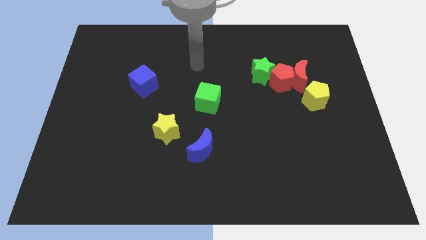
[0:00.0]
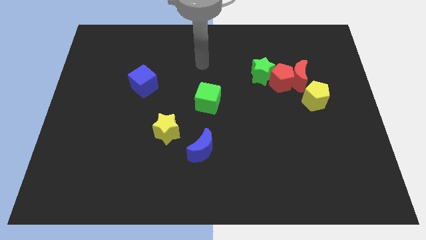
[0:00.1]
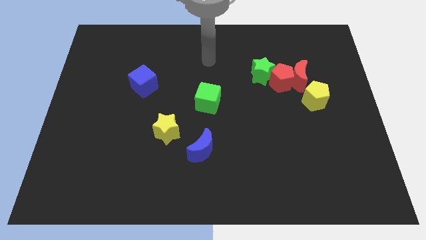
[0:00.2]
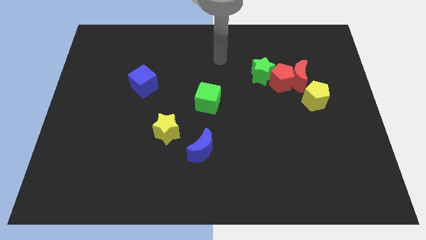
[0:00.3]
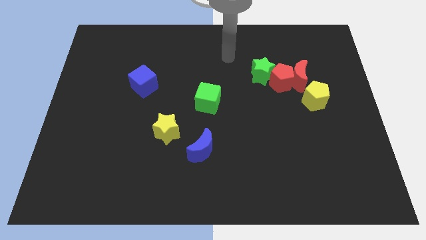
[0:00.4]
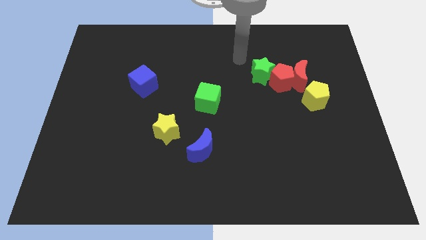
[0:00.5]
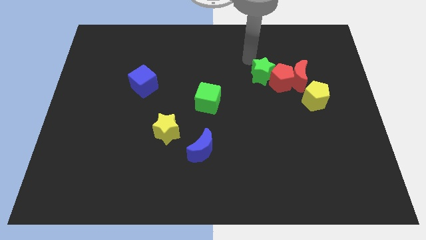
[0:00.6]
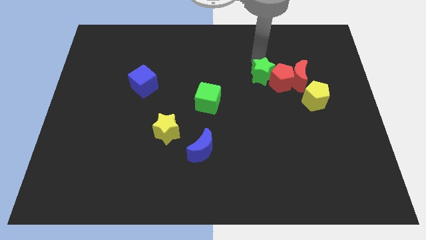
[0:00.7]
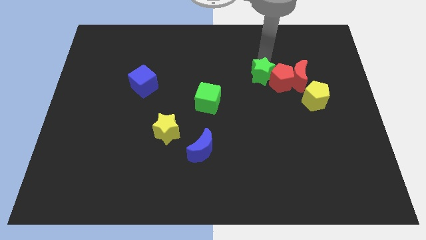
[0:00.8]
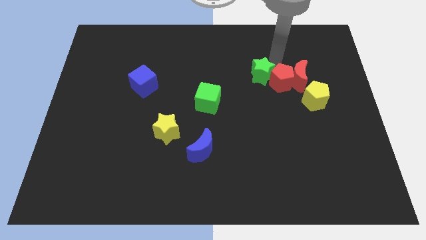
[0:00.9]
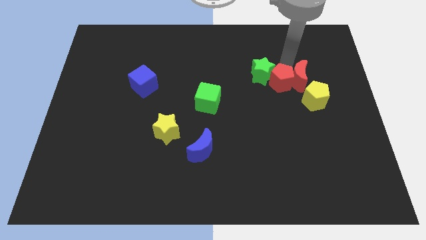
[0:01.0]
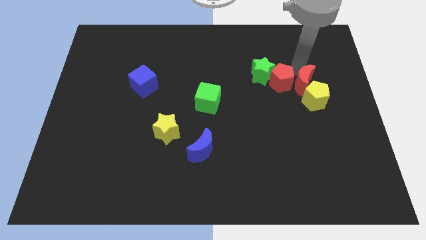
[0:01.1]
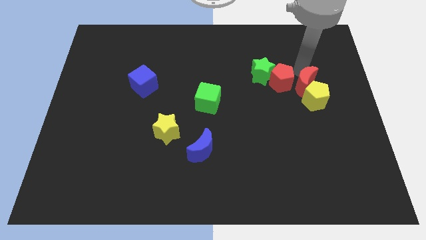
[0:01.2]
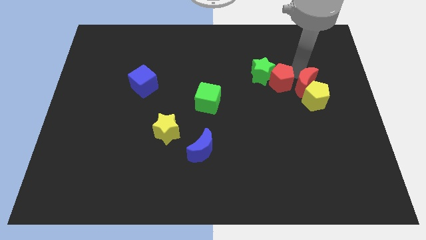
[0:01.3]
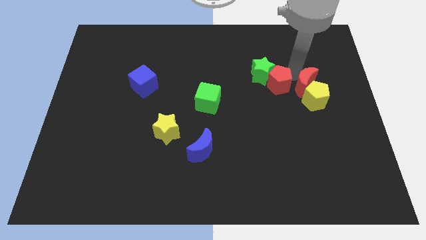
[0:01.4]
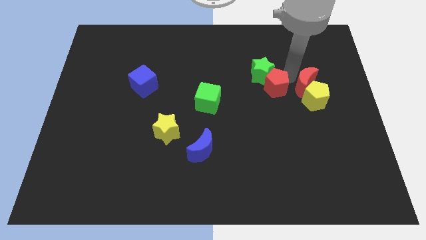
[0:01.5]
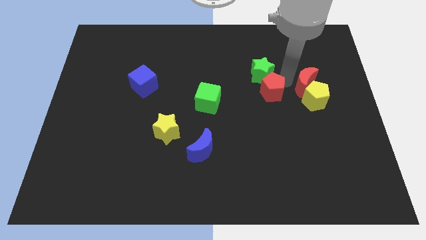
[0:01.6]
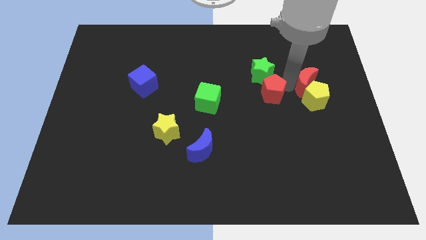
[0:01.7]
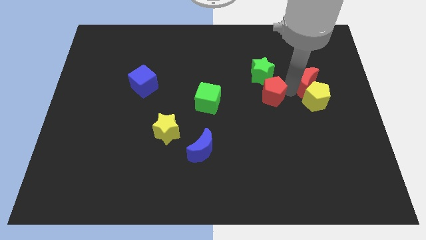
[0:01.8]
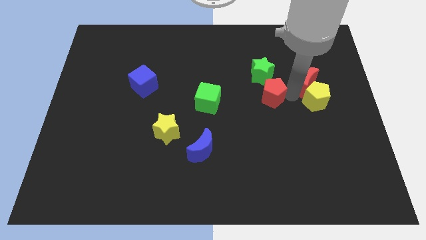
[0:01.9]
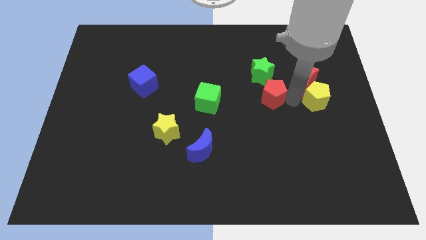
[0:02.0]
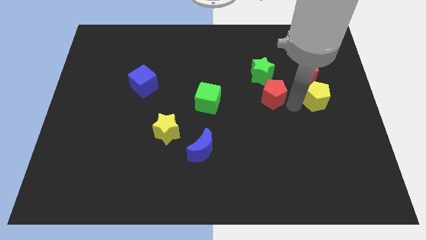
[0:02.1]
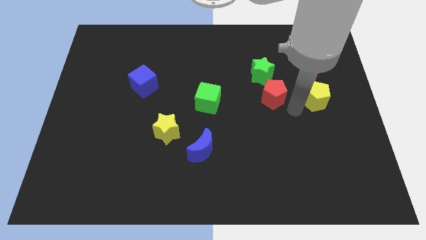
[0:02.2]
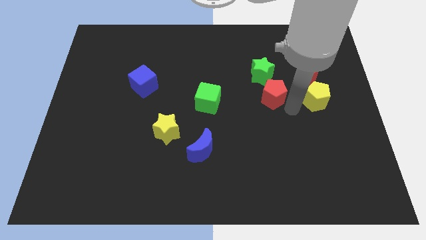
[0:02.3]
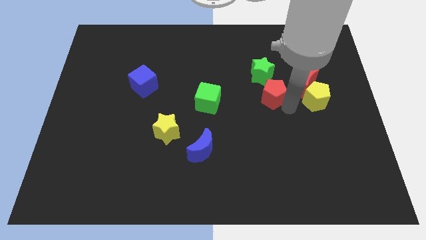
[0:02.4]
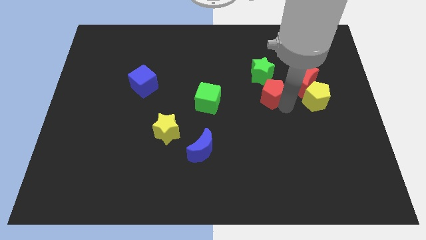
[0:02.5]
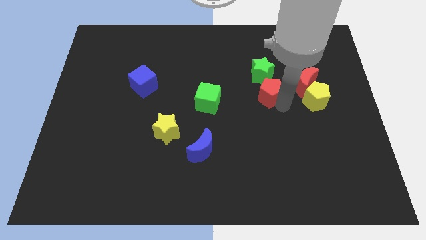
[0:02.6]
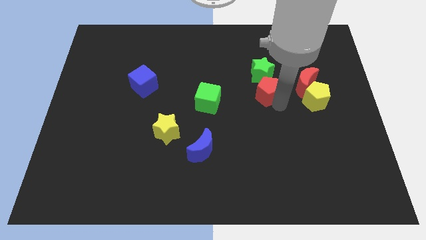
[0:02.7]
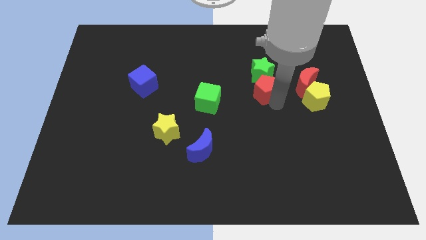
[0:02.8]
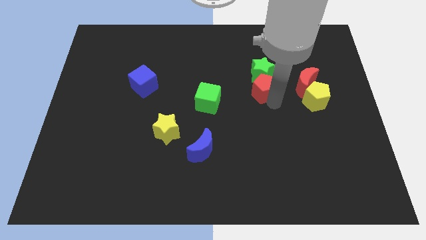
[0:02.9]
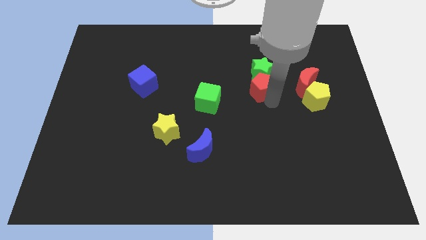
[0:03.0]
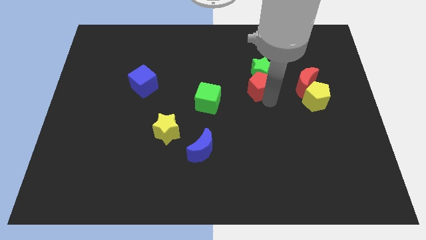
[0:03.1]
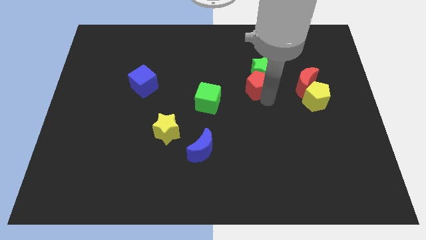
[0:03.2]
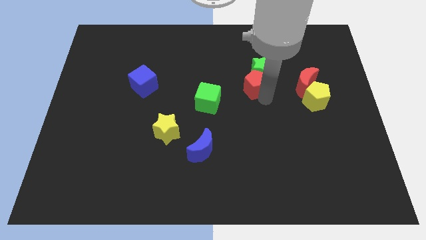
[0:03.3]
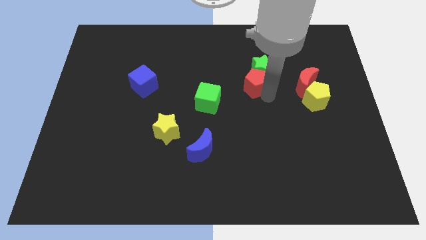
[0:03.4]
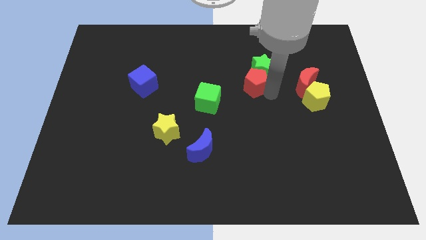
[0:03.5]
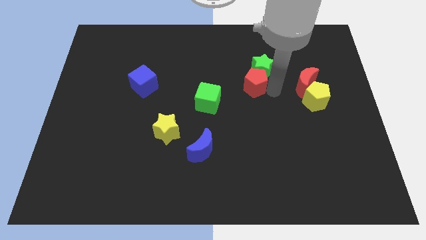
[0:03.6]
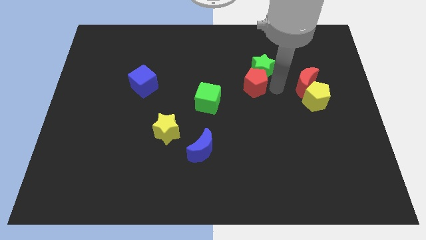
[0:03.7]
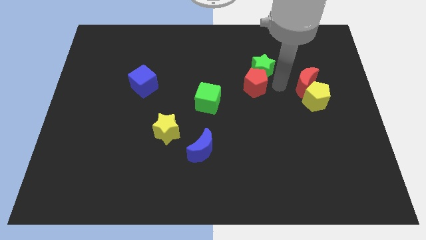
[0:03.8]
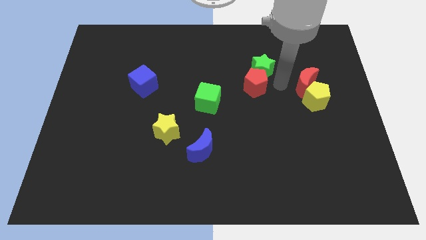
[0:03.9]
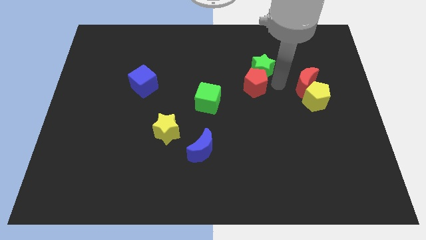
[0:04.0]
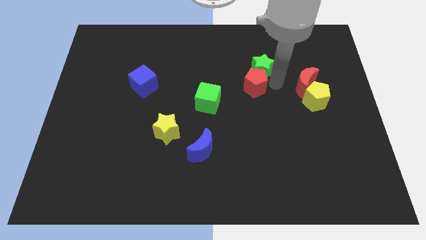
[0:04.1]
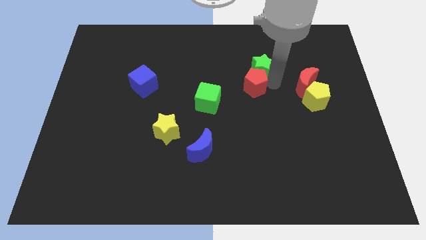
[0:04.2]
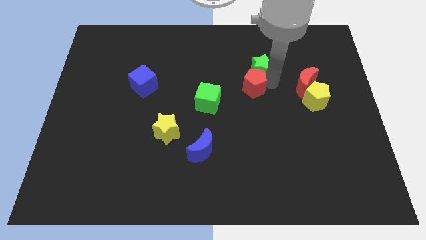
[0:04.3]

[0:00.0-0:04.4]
separate the red pentagon from the red moon, green star, and yellow pentagon

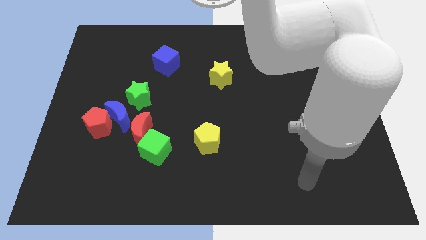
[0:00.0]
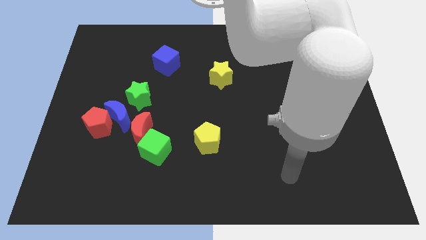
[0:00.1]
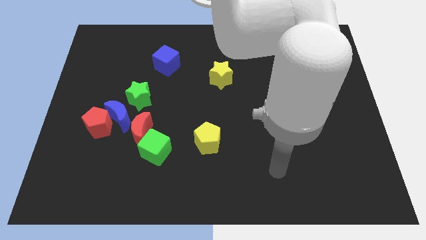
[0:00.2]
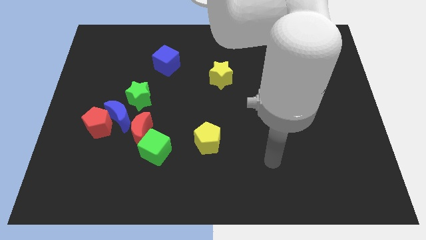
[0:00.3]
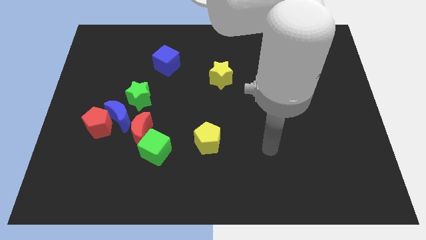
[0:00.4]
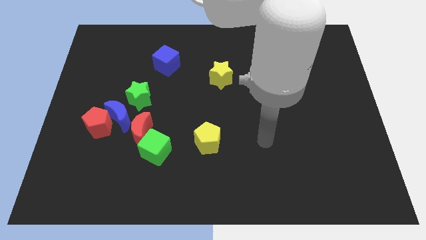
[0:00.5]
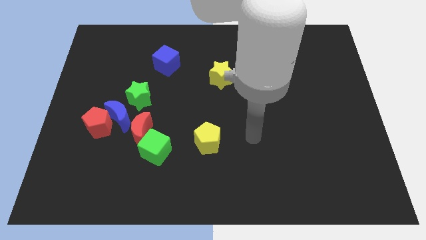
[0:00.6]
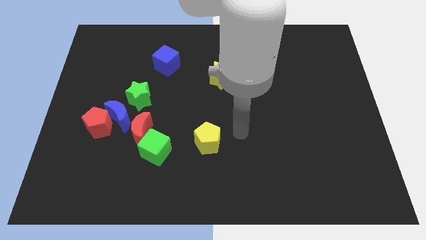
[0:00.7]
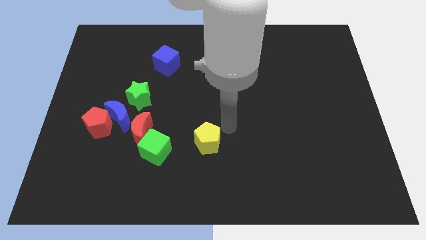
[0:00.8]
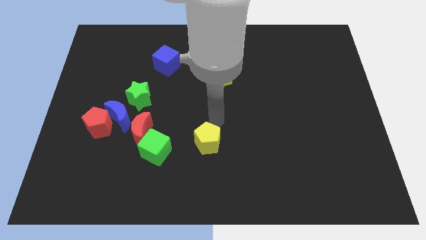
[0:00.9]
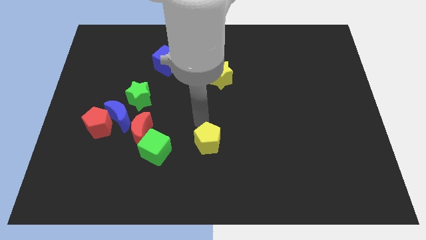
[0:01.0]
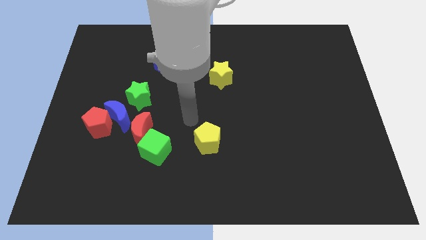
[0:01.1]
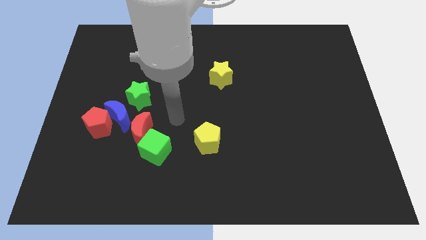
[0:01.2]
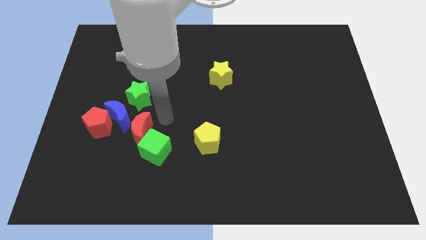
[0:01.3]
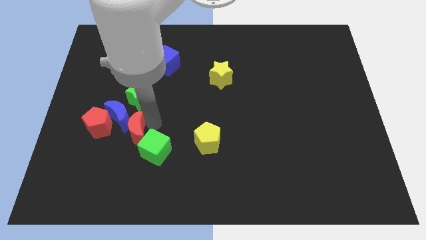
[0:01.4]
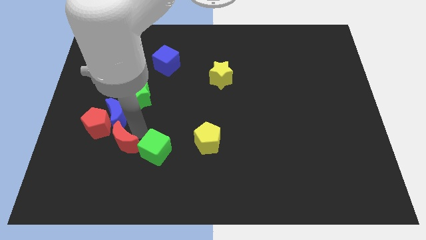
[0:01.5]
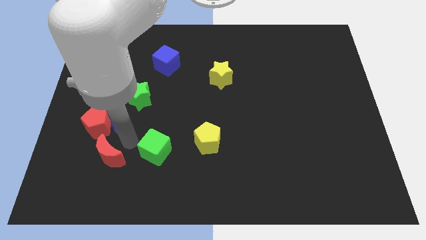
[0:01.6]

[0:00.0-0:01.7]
separate the green cube from the red moon

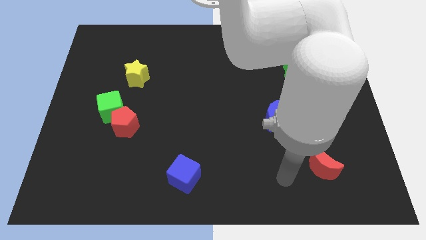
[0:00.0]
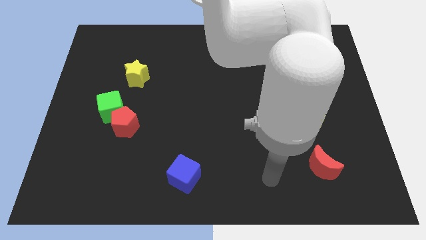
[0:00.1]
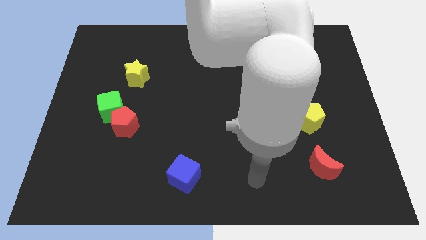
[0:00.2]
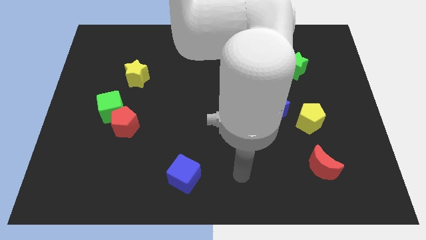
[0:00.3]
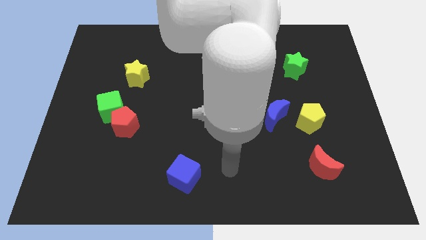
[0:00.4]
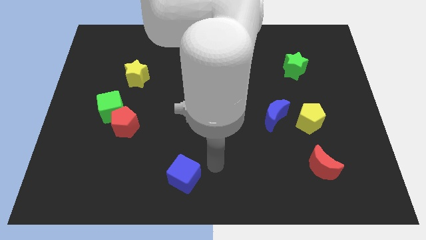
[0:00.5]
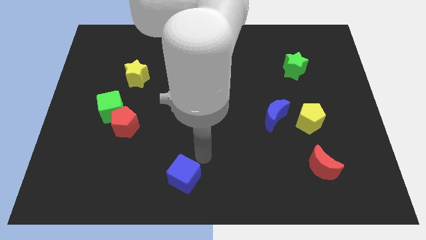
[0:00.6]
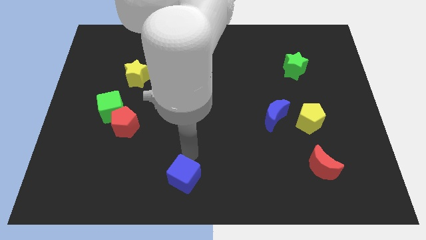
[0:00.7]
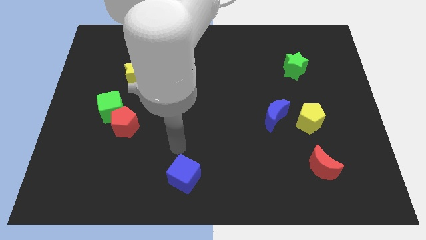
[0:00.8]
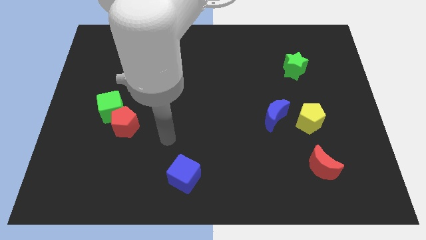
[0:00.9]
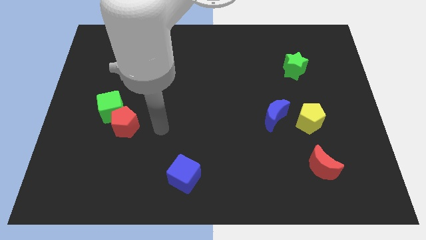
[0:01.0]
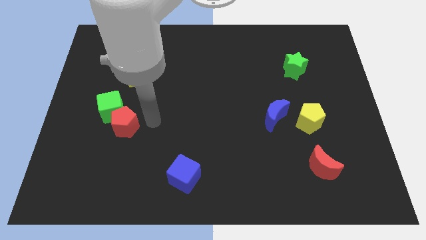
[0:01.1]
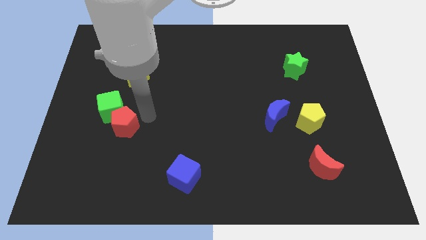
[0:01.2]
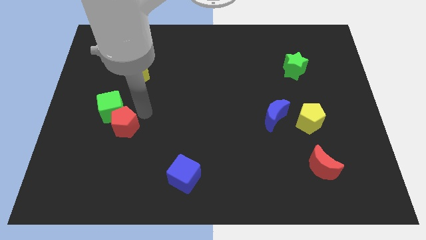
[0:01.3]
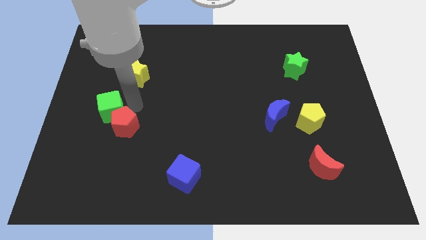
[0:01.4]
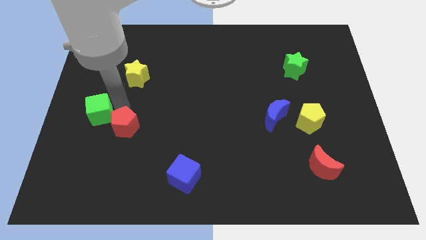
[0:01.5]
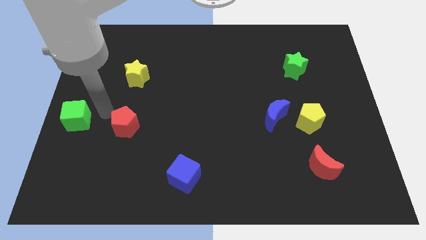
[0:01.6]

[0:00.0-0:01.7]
move the red pentagon away from the green cube

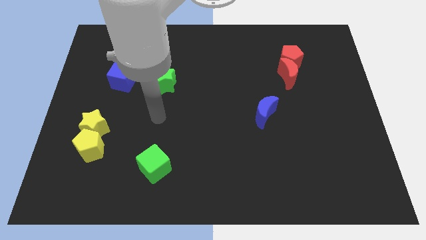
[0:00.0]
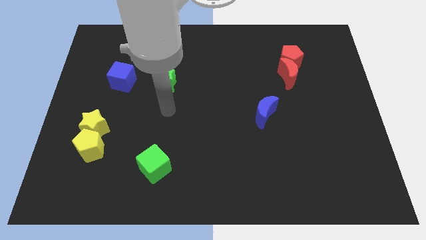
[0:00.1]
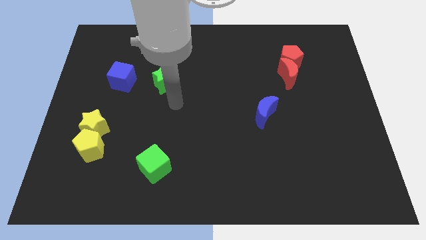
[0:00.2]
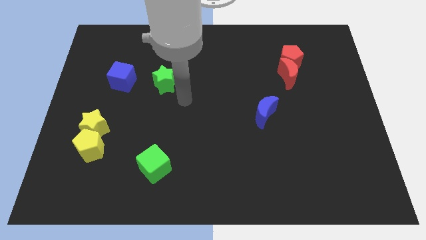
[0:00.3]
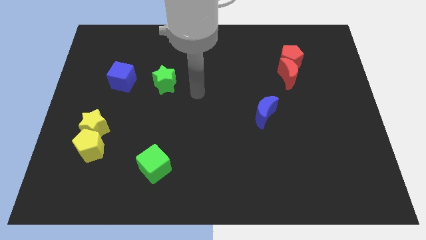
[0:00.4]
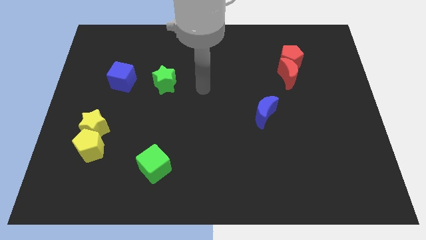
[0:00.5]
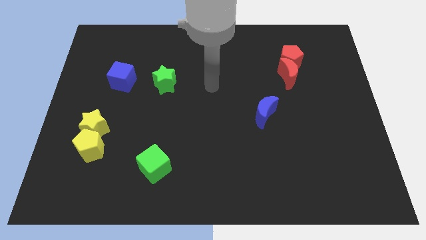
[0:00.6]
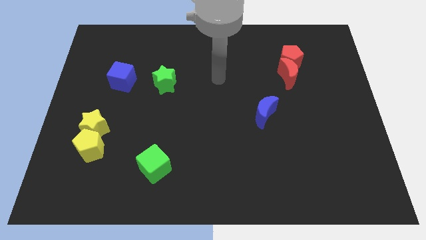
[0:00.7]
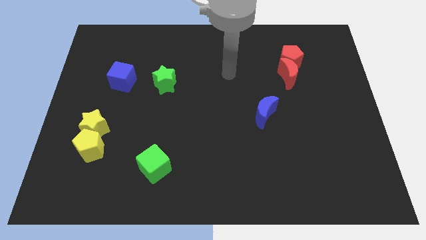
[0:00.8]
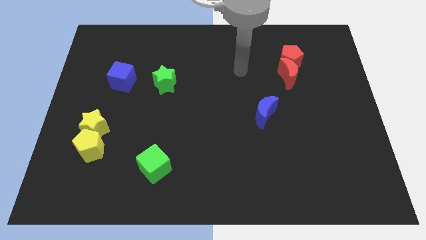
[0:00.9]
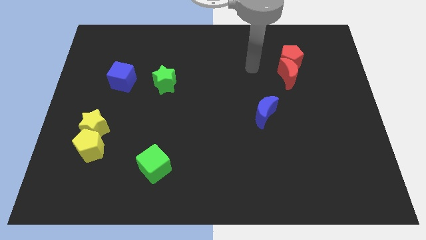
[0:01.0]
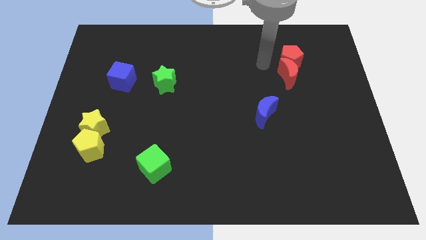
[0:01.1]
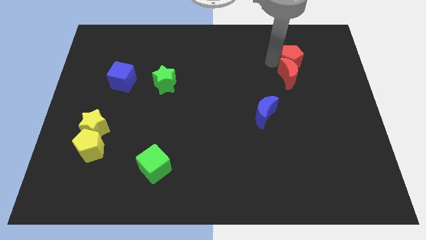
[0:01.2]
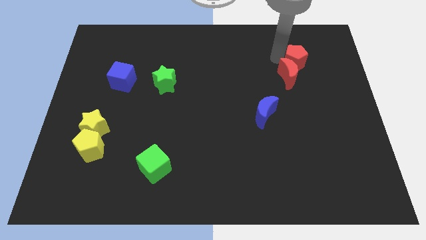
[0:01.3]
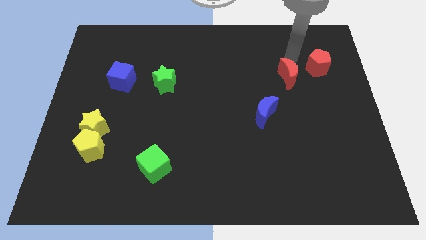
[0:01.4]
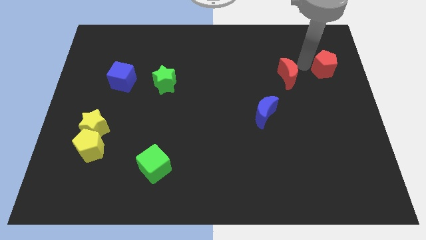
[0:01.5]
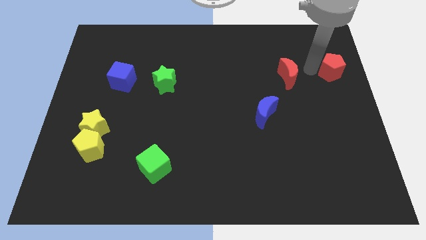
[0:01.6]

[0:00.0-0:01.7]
pull the red moon apart from the red pentagon
